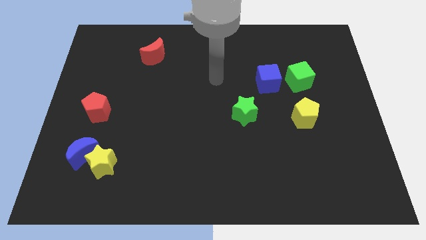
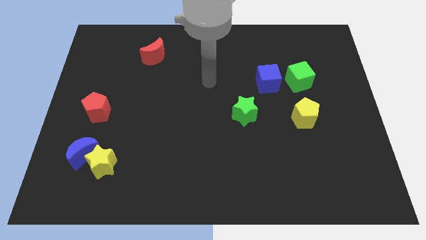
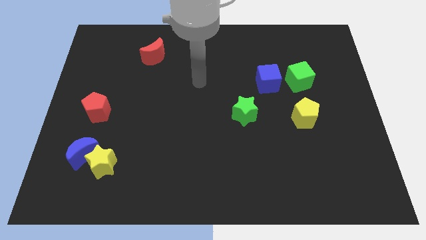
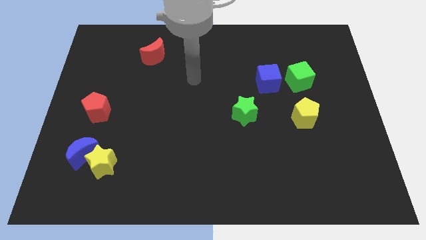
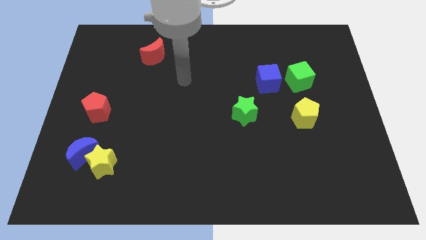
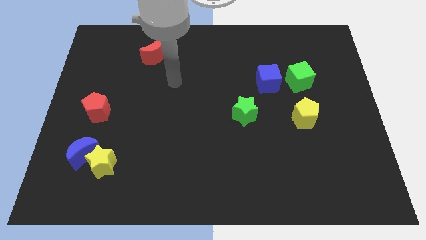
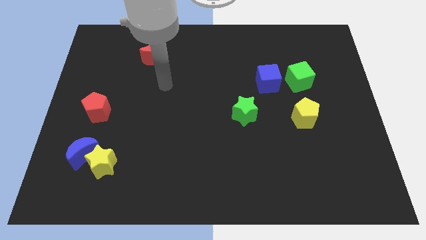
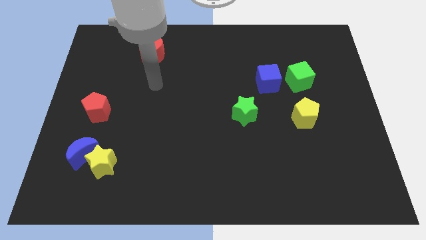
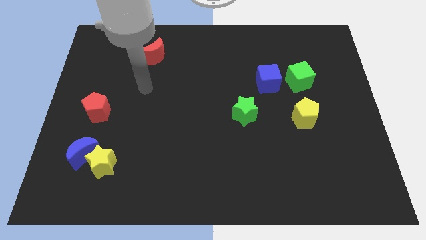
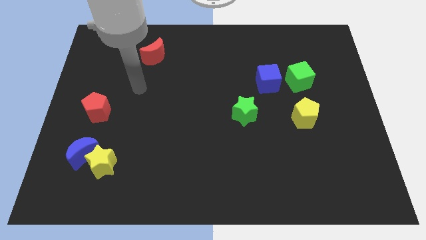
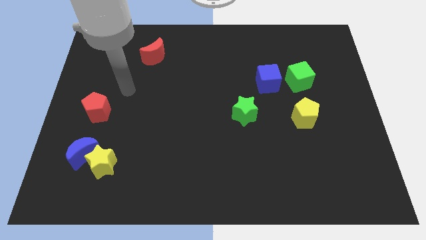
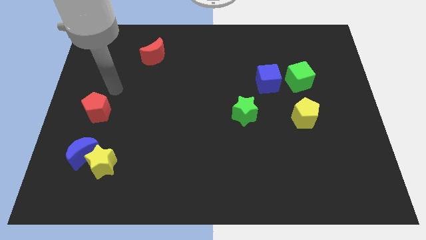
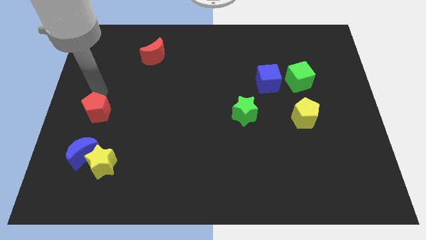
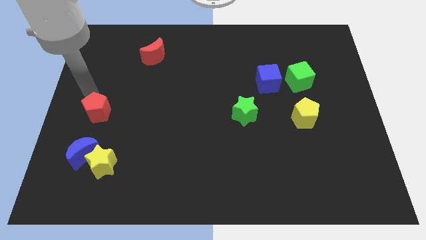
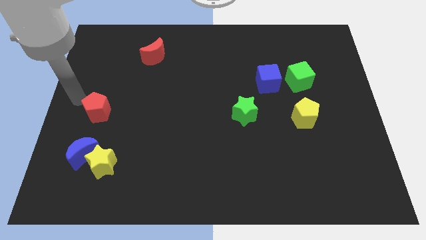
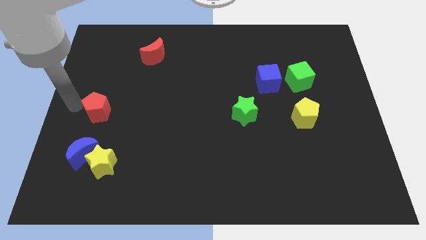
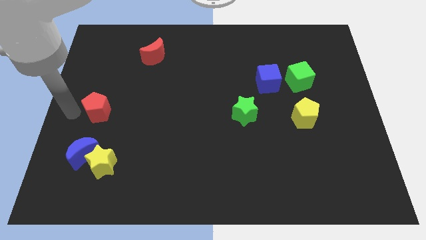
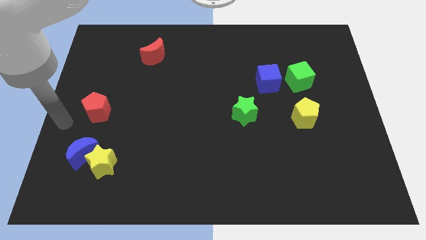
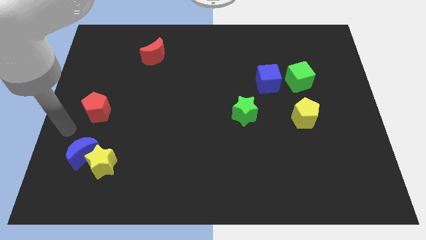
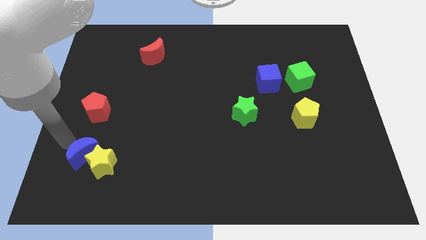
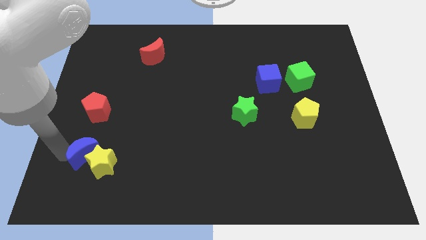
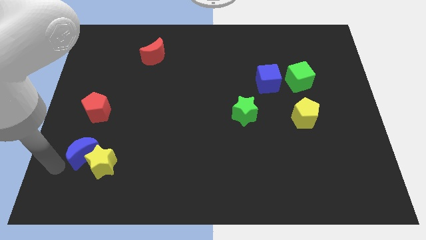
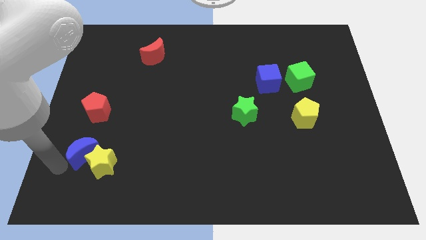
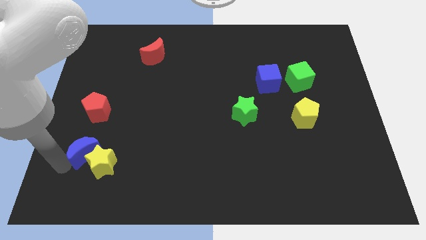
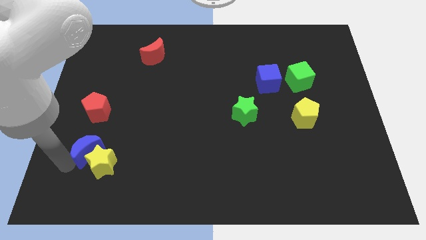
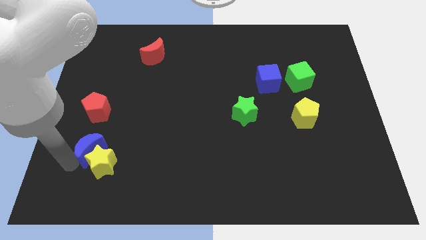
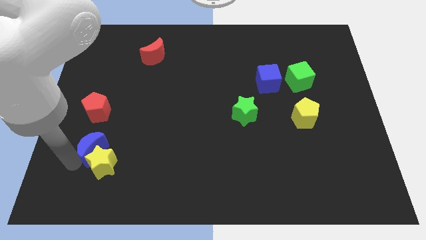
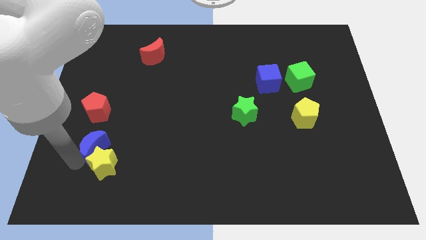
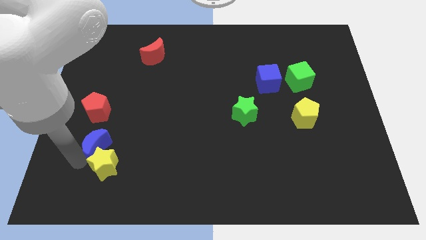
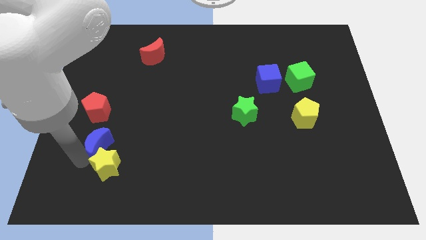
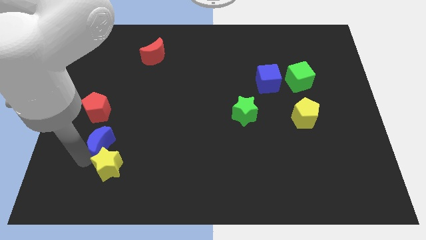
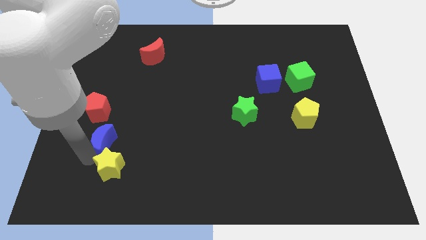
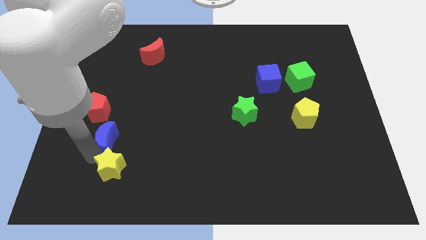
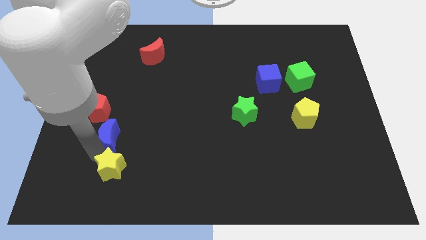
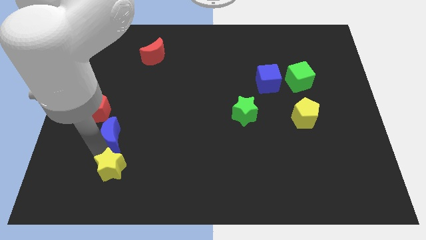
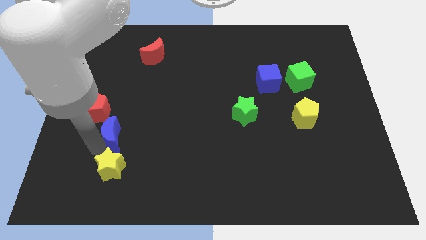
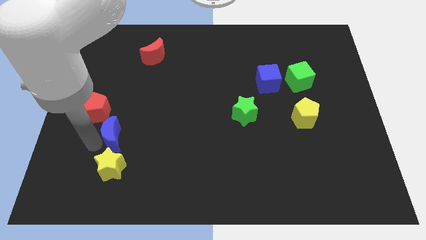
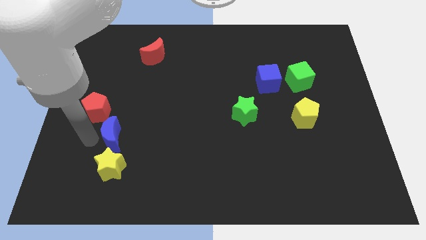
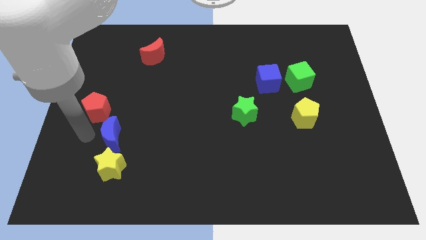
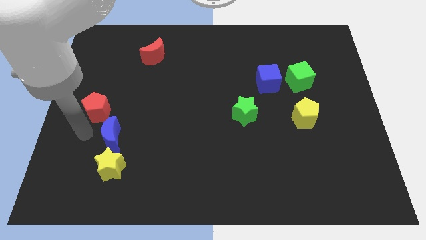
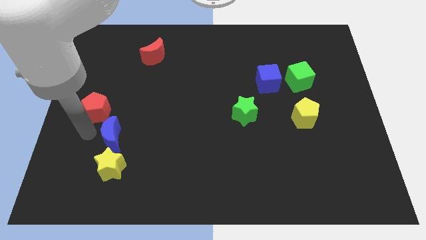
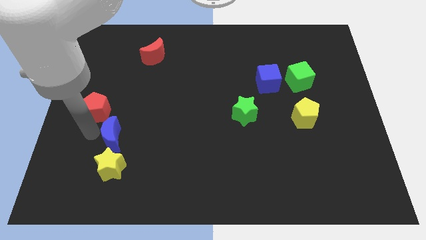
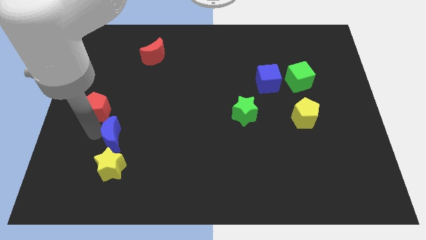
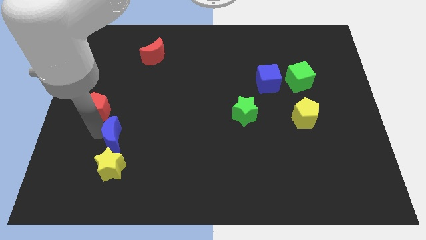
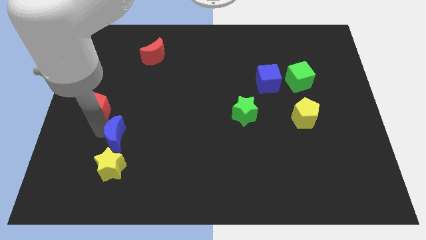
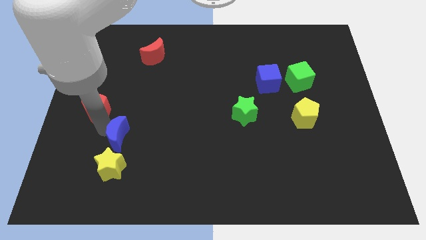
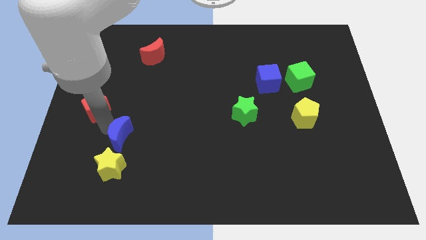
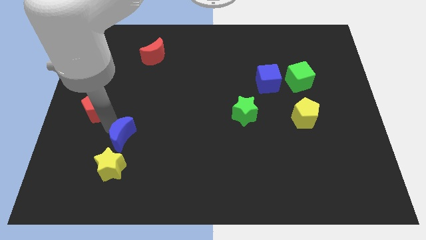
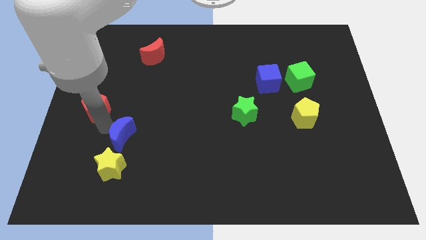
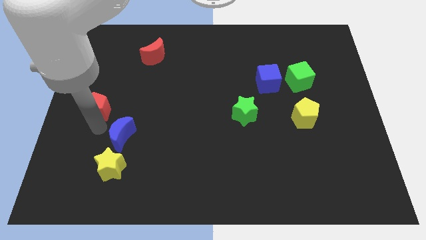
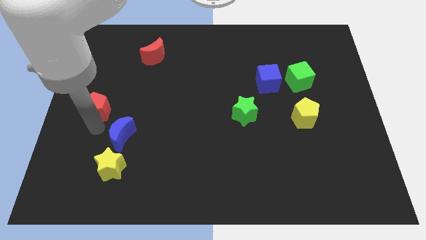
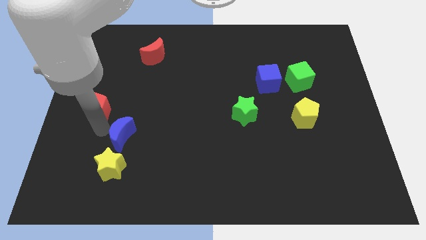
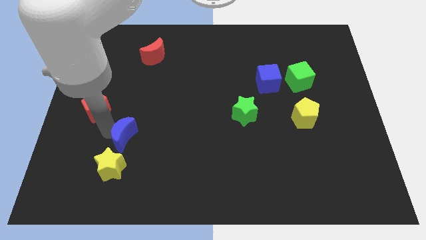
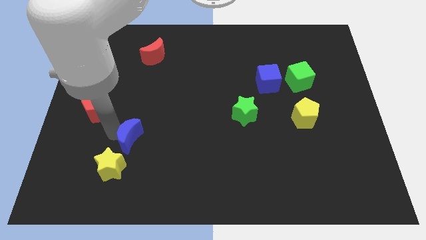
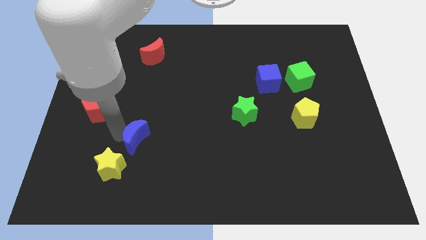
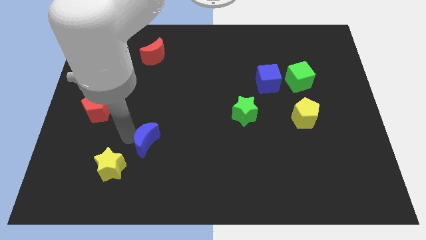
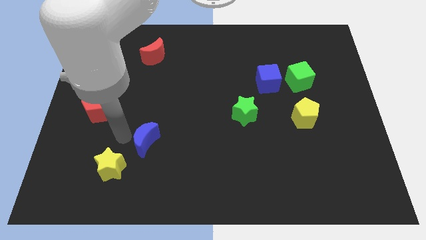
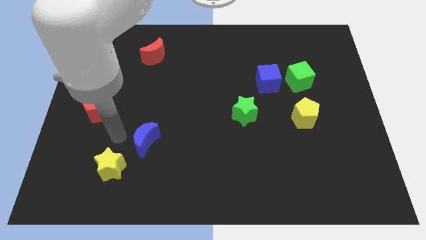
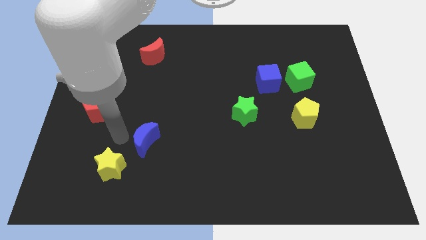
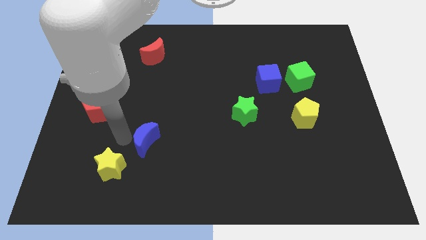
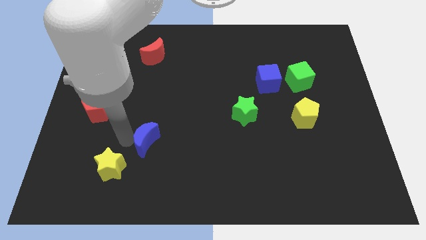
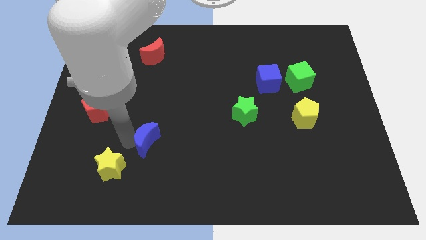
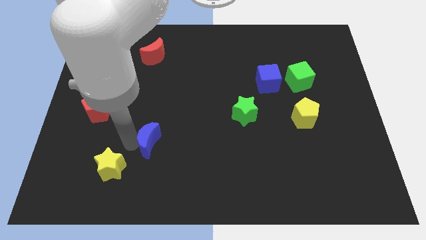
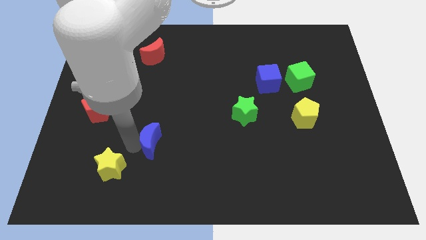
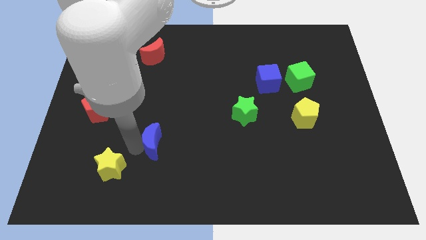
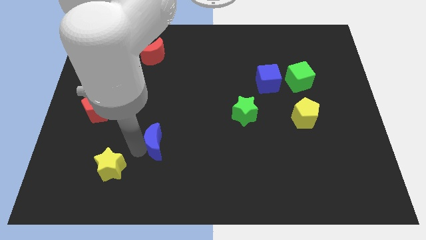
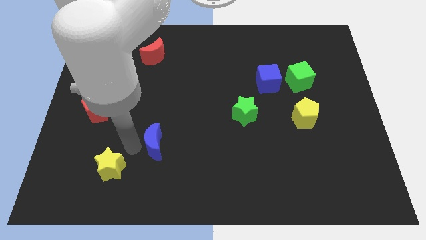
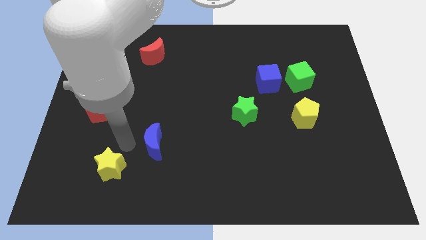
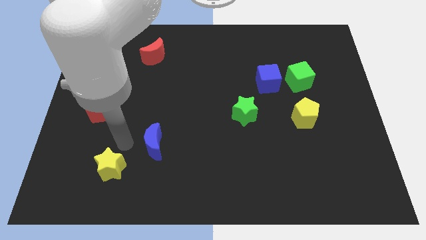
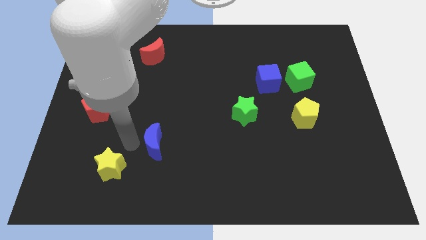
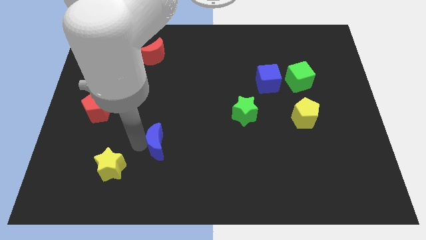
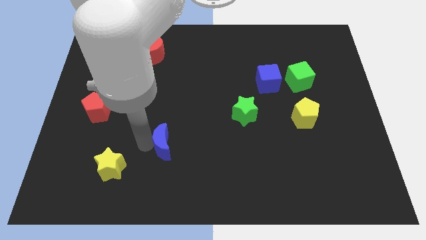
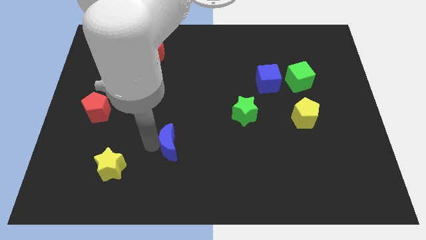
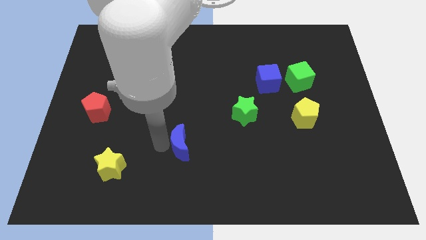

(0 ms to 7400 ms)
move the blue moon right

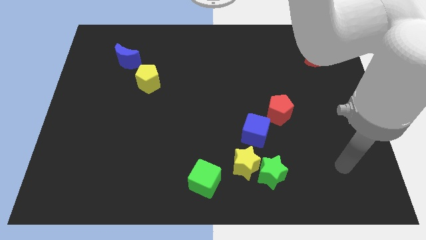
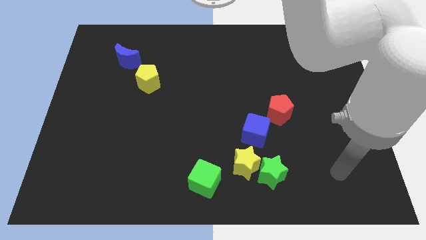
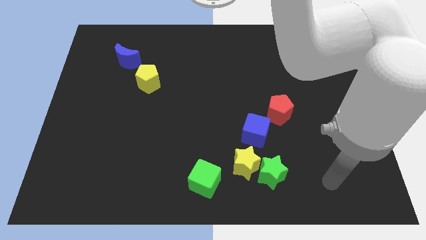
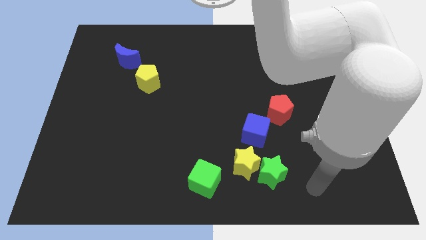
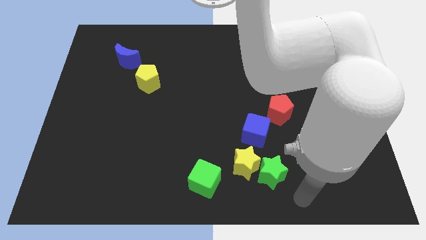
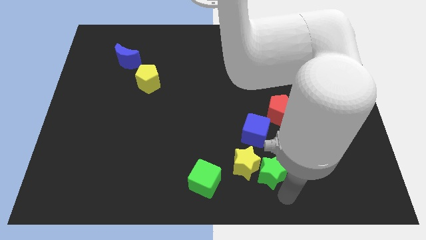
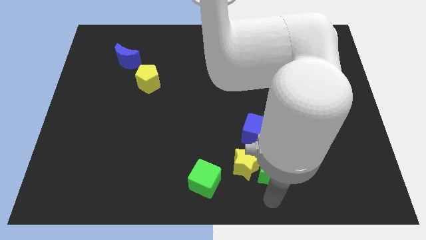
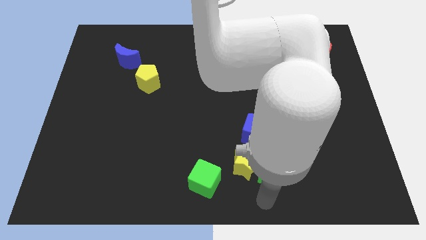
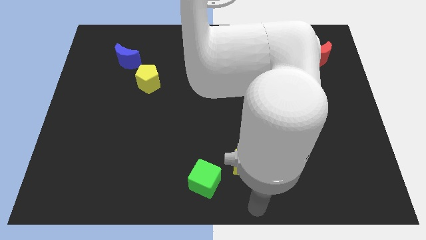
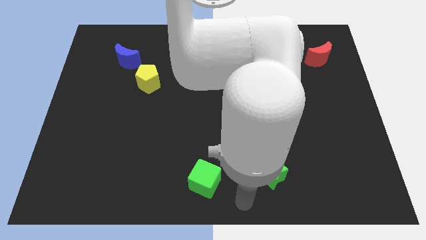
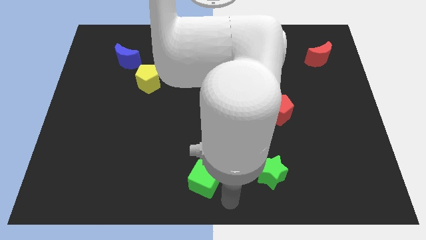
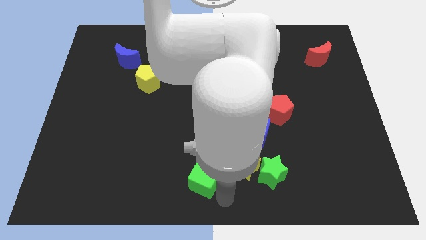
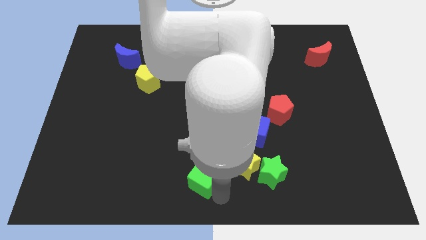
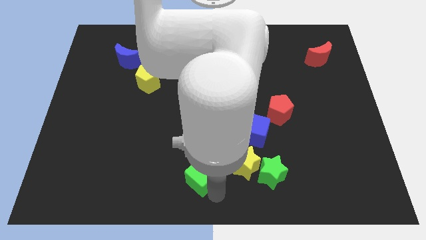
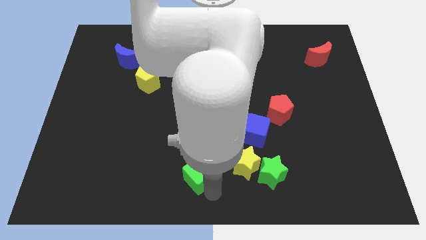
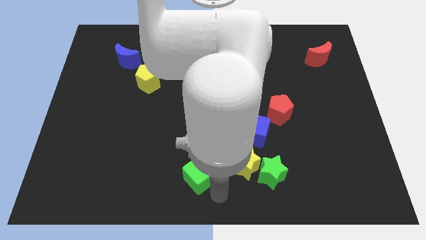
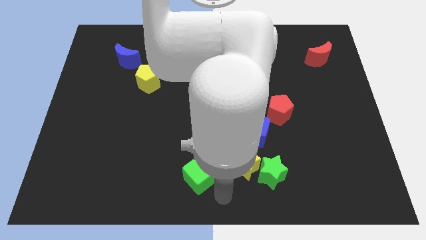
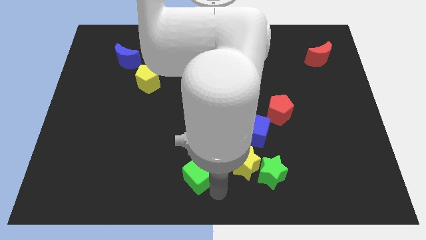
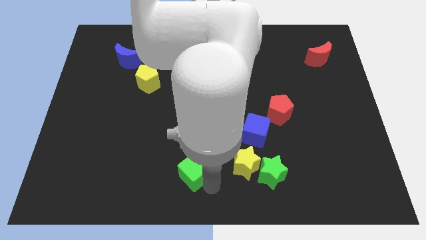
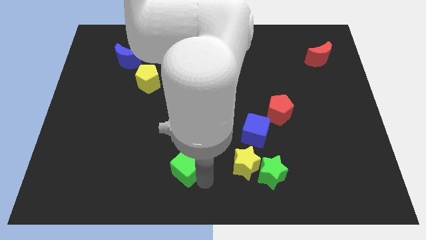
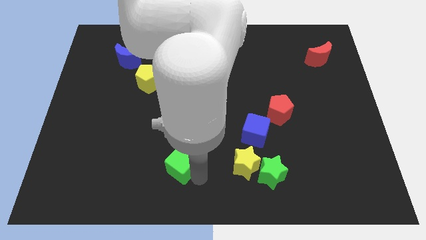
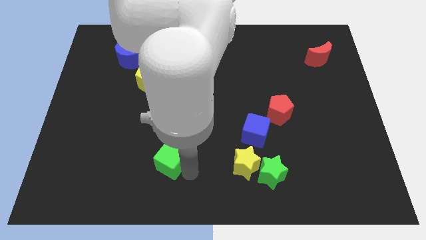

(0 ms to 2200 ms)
move the green cube upwards and then to the left a little bit
